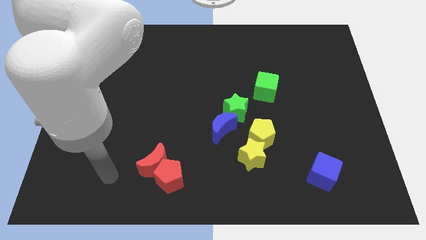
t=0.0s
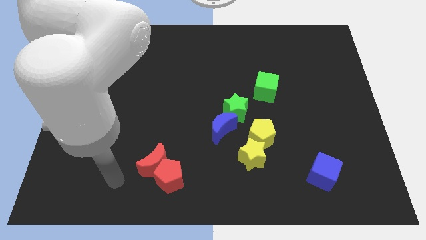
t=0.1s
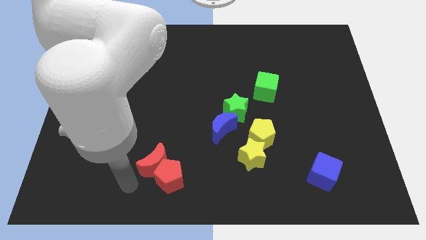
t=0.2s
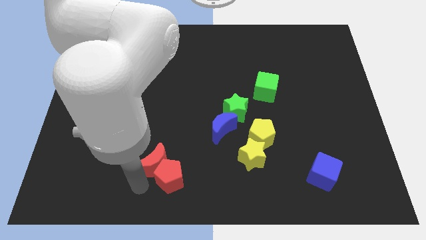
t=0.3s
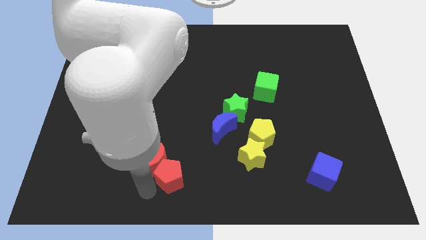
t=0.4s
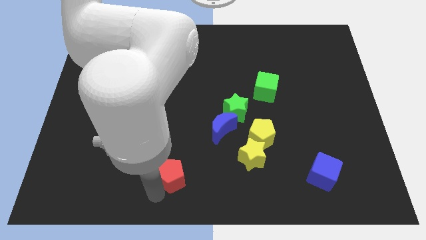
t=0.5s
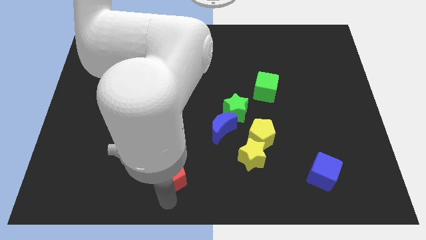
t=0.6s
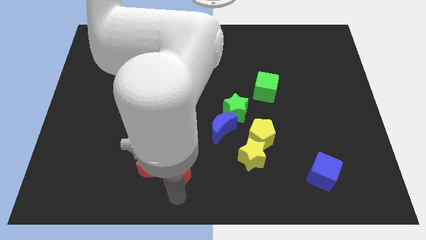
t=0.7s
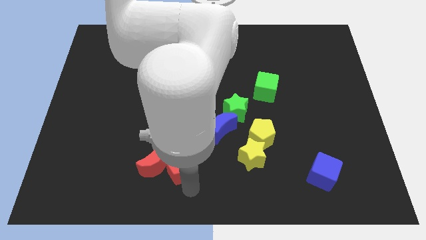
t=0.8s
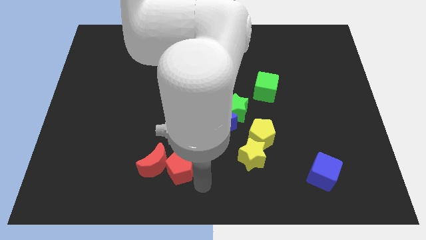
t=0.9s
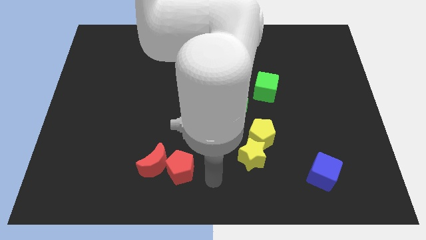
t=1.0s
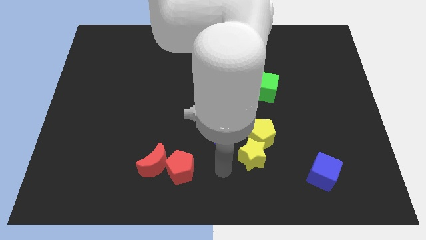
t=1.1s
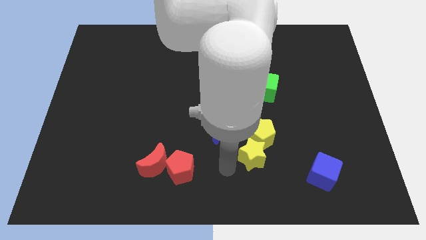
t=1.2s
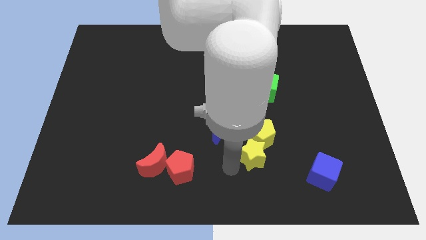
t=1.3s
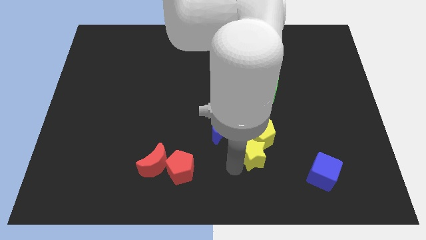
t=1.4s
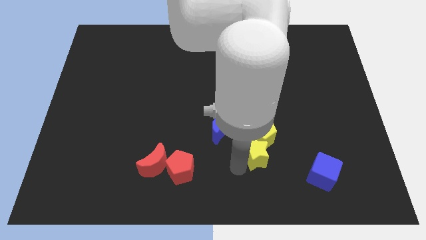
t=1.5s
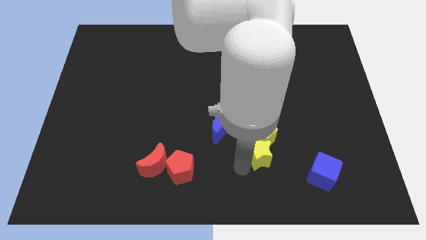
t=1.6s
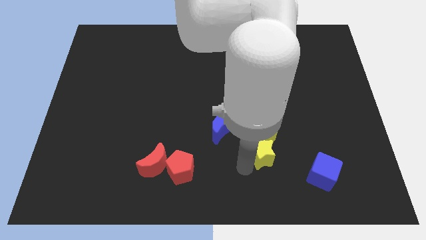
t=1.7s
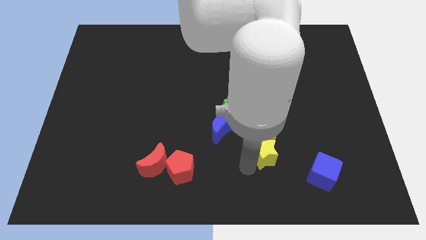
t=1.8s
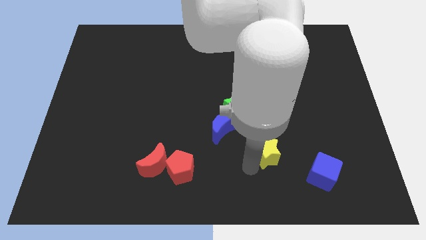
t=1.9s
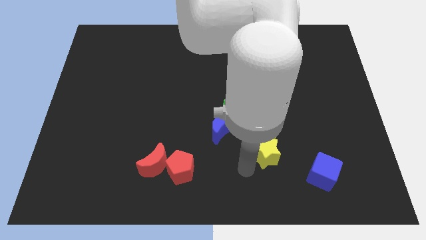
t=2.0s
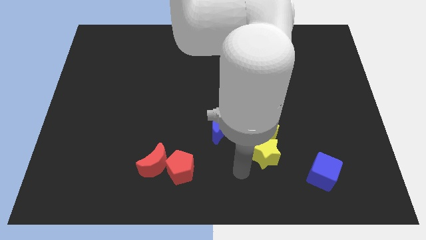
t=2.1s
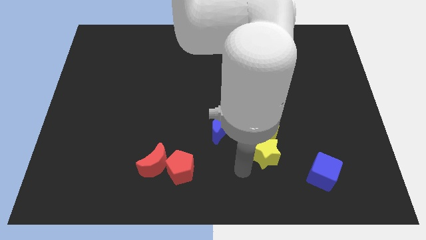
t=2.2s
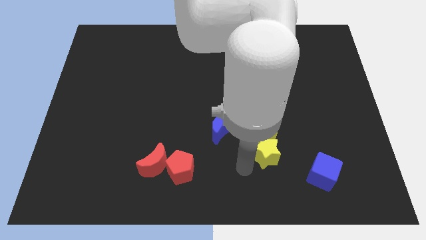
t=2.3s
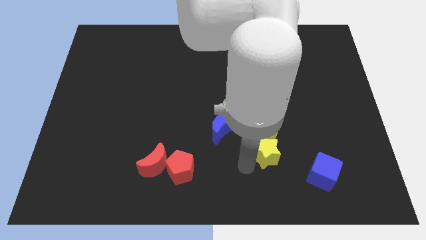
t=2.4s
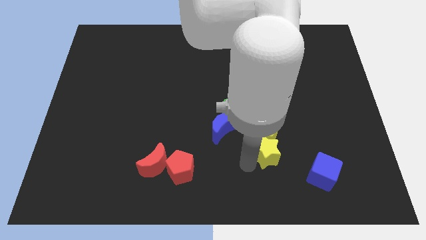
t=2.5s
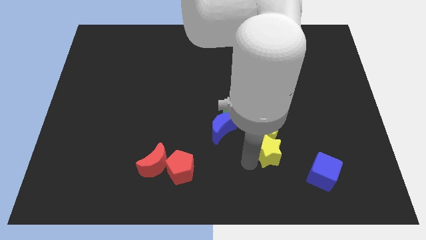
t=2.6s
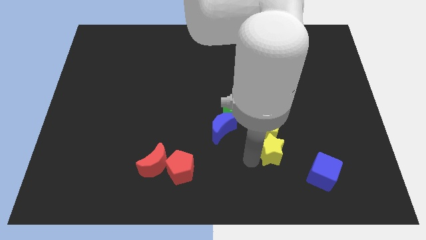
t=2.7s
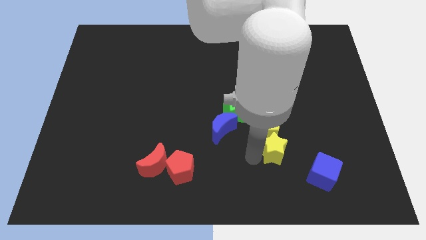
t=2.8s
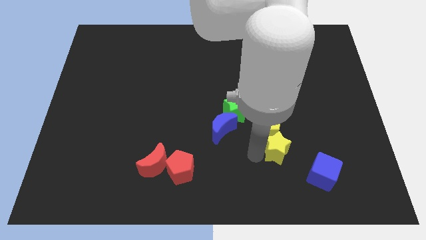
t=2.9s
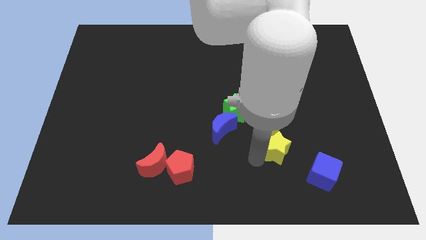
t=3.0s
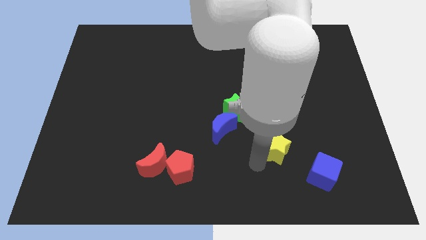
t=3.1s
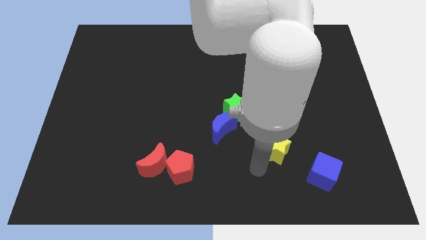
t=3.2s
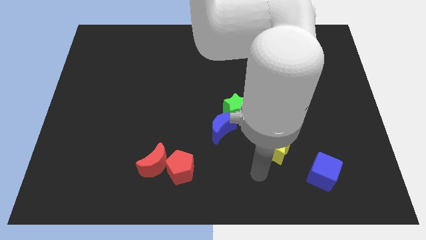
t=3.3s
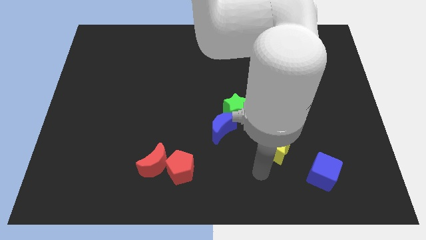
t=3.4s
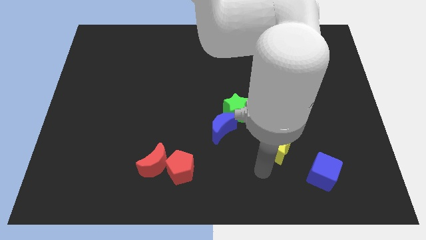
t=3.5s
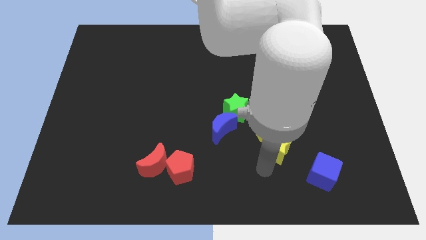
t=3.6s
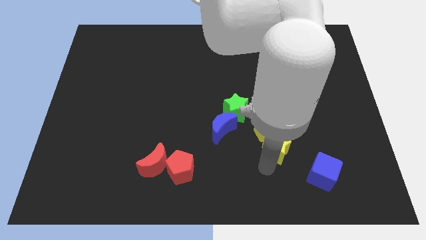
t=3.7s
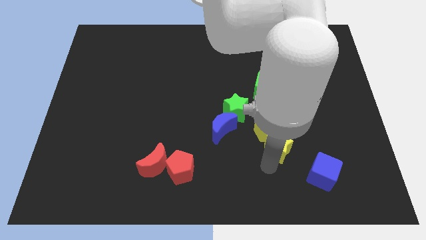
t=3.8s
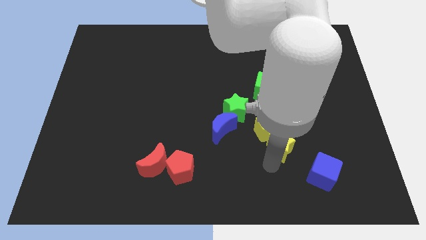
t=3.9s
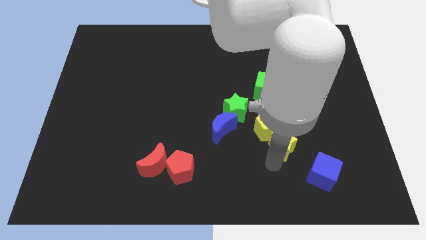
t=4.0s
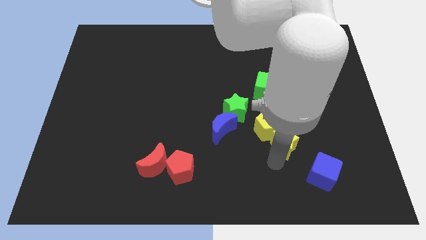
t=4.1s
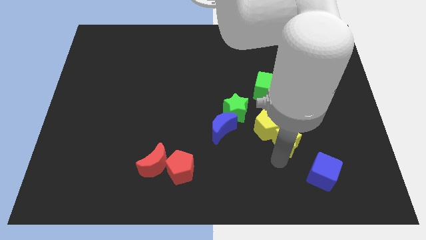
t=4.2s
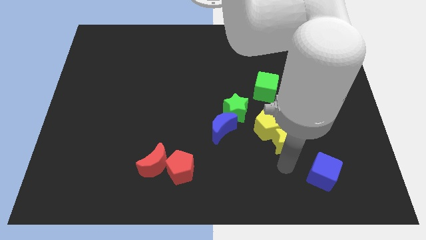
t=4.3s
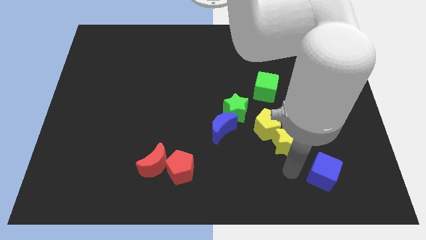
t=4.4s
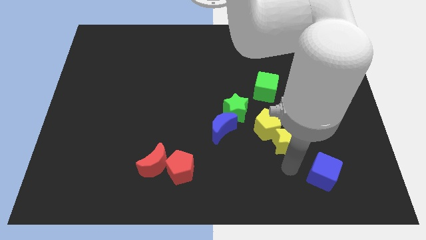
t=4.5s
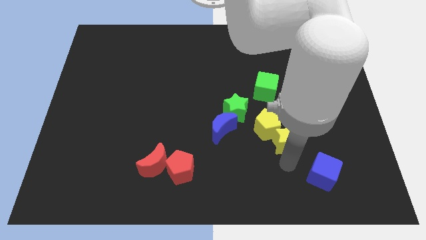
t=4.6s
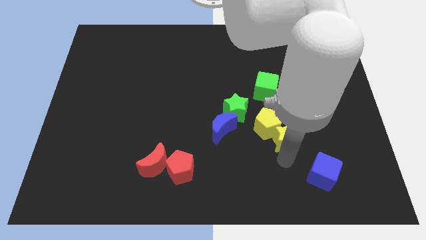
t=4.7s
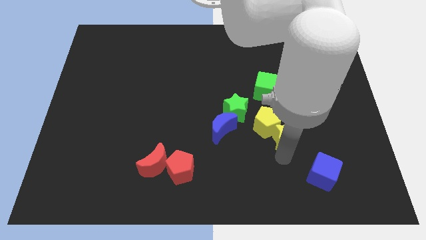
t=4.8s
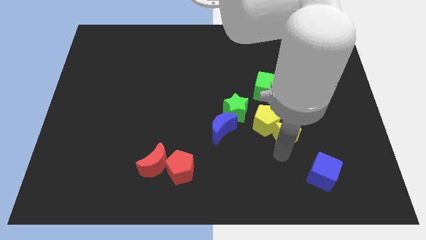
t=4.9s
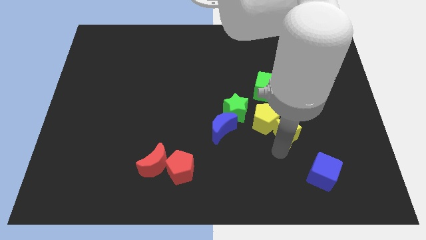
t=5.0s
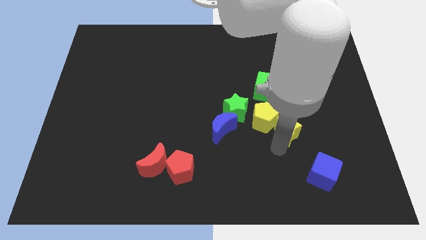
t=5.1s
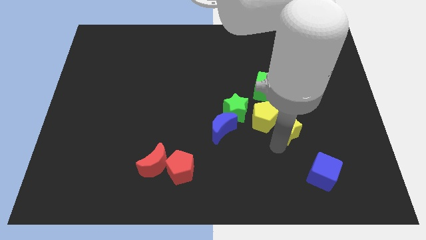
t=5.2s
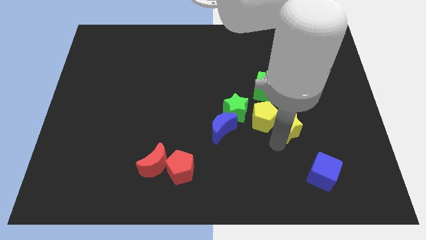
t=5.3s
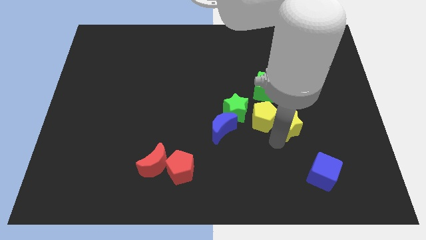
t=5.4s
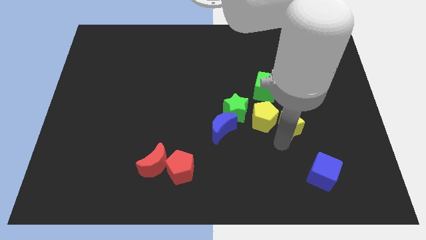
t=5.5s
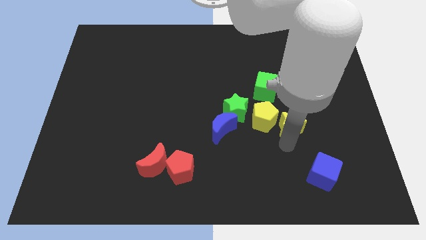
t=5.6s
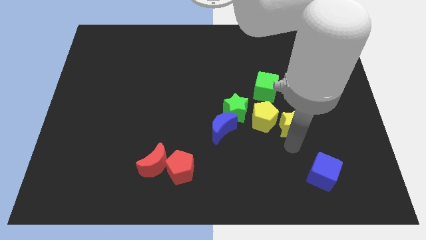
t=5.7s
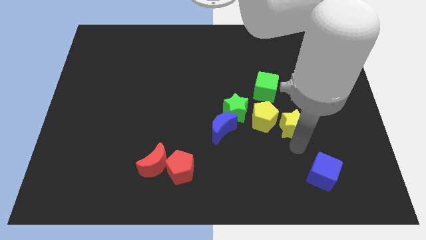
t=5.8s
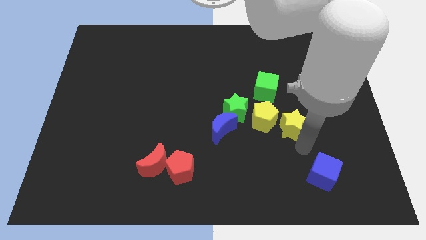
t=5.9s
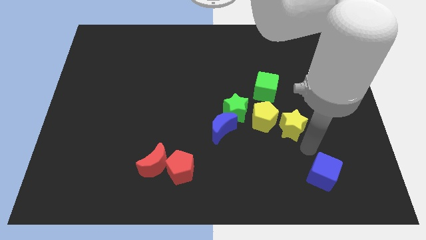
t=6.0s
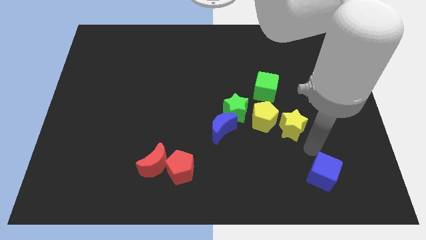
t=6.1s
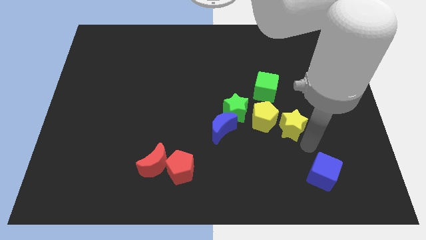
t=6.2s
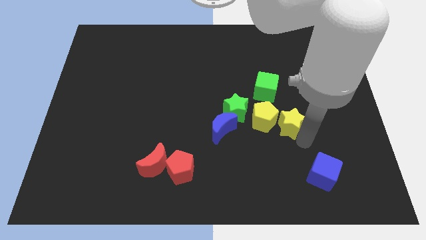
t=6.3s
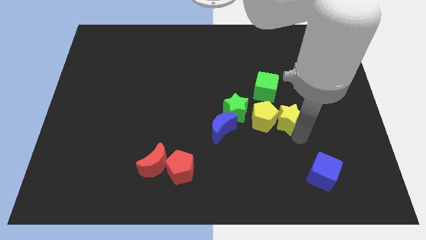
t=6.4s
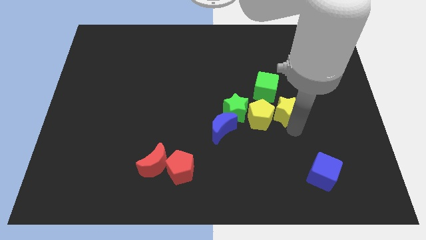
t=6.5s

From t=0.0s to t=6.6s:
slightly slide the yellow star up

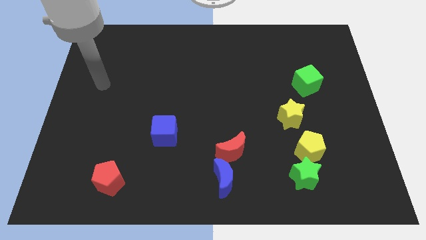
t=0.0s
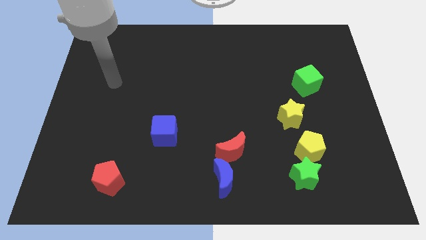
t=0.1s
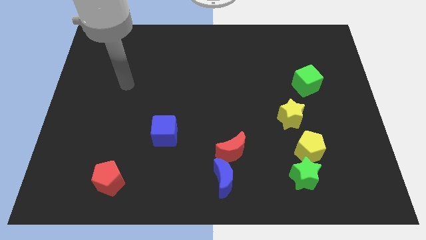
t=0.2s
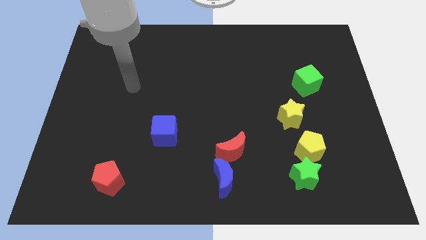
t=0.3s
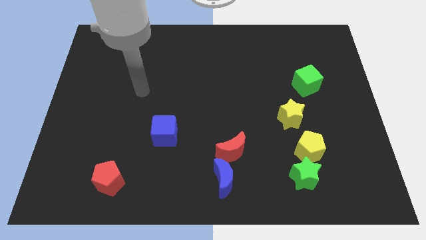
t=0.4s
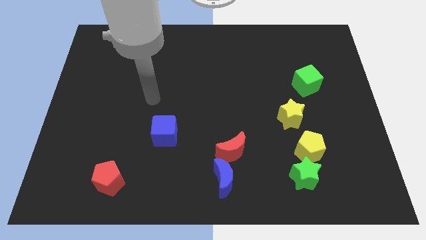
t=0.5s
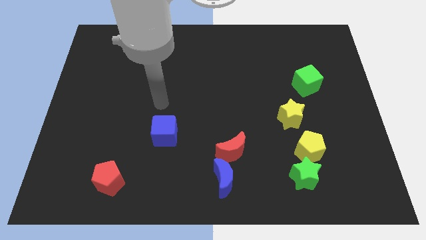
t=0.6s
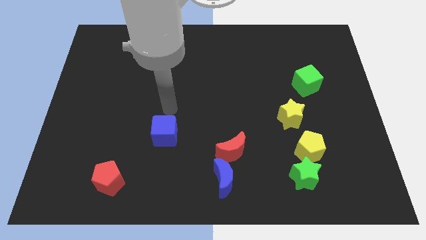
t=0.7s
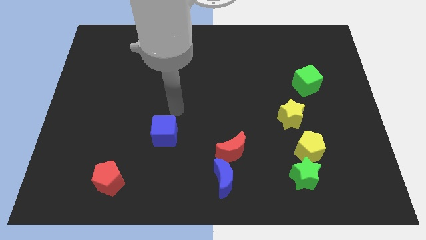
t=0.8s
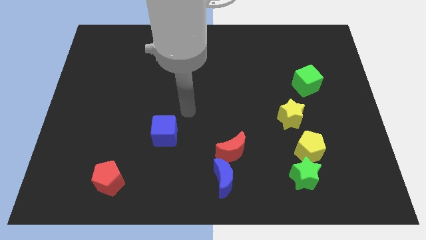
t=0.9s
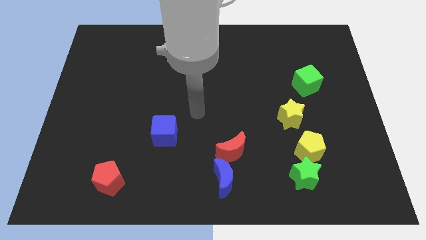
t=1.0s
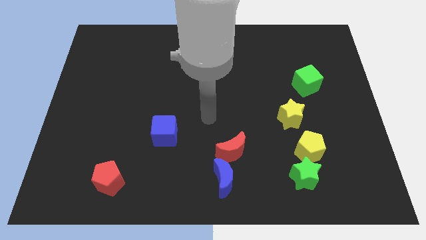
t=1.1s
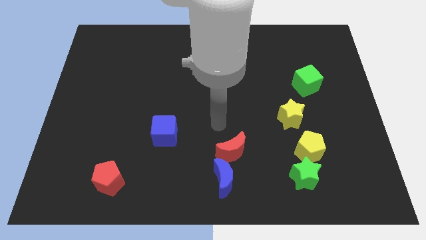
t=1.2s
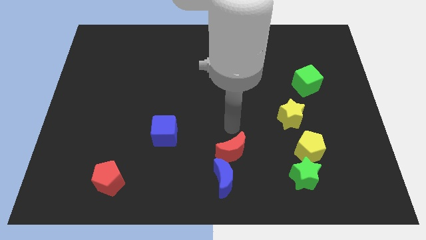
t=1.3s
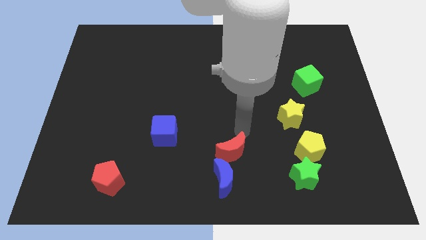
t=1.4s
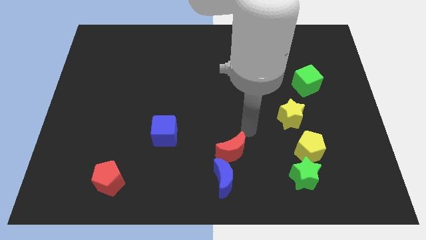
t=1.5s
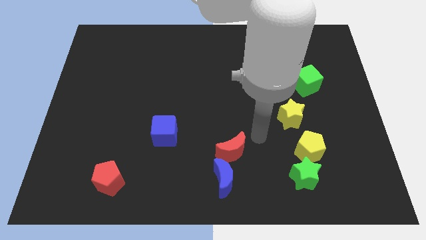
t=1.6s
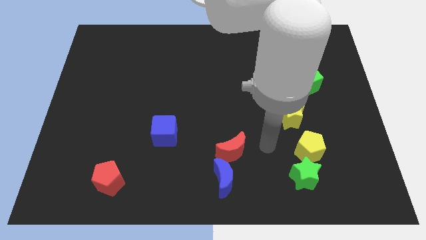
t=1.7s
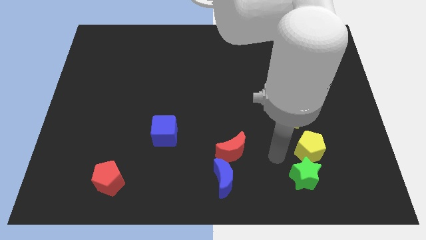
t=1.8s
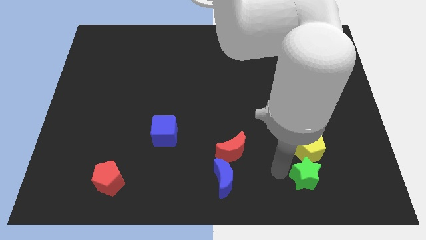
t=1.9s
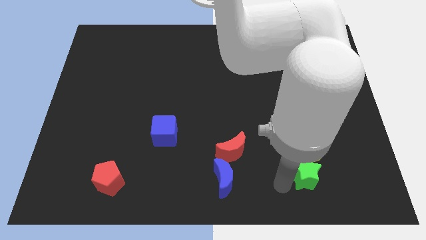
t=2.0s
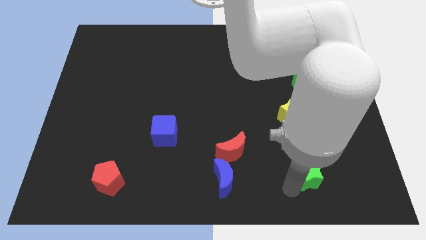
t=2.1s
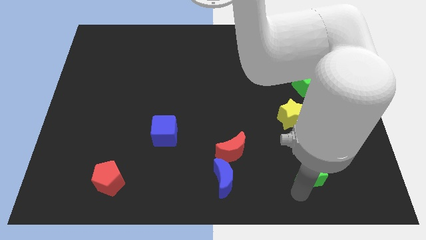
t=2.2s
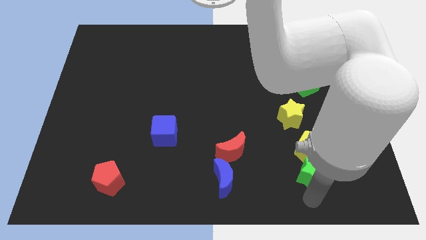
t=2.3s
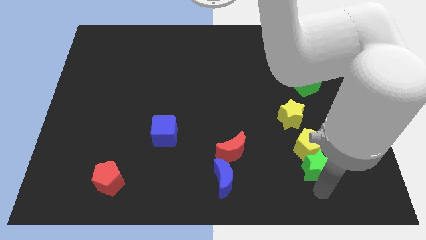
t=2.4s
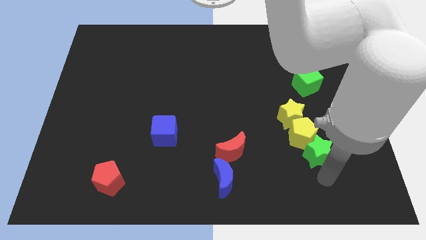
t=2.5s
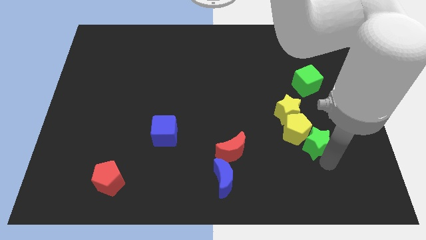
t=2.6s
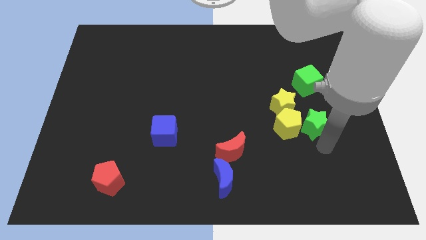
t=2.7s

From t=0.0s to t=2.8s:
move the yellow pentagon diagonally up and to the left a bit
